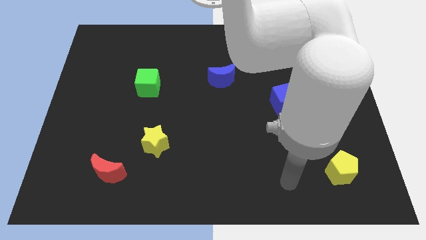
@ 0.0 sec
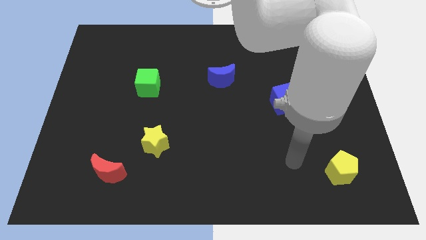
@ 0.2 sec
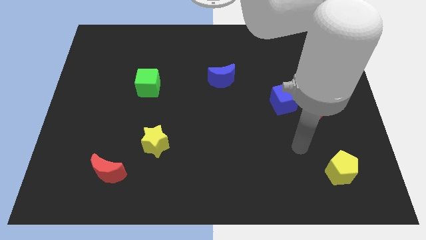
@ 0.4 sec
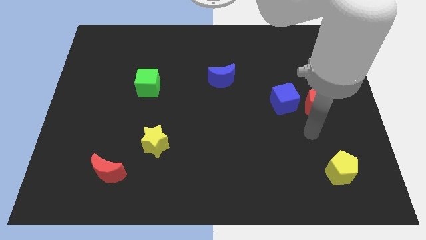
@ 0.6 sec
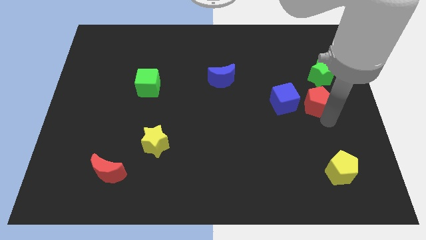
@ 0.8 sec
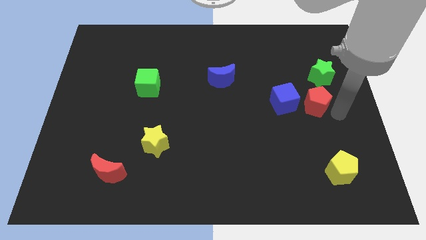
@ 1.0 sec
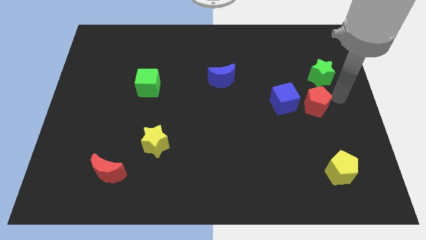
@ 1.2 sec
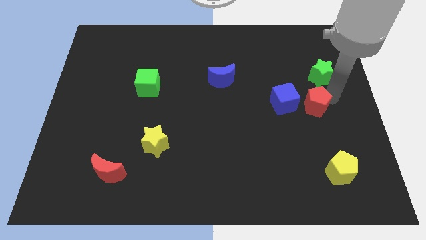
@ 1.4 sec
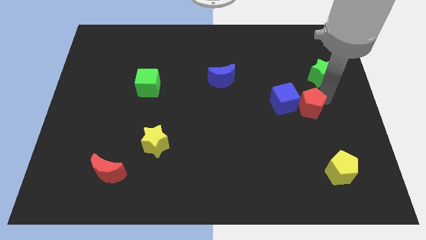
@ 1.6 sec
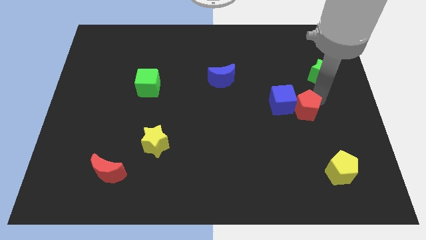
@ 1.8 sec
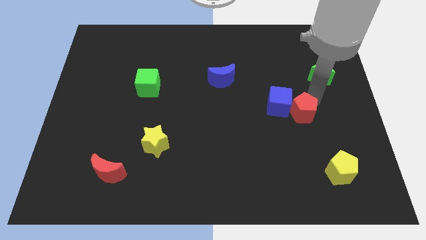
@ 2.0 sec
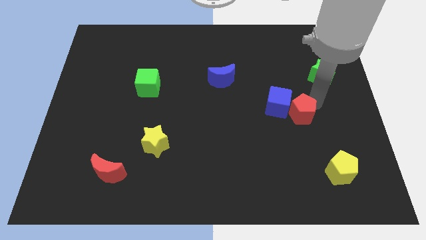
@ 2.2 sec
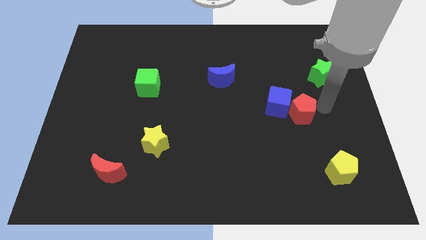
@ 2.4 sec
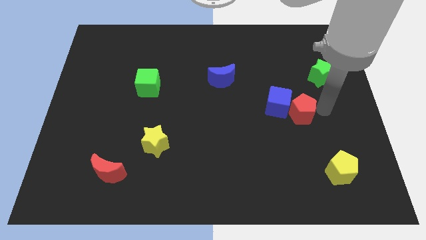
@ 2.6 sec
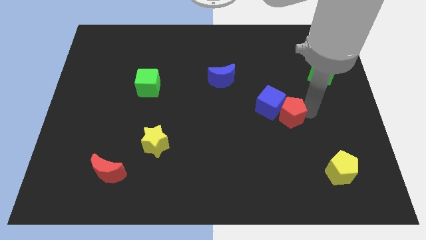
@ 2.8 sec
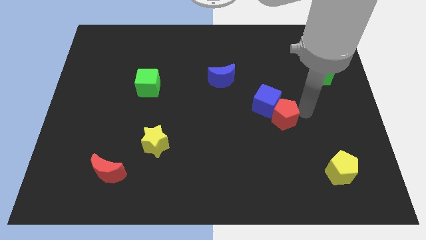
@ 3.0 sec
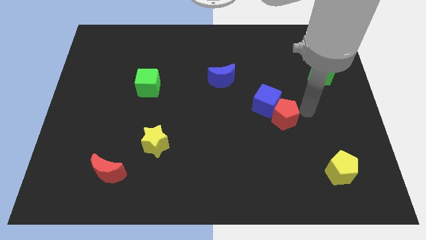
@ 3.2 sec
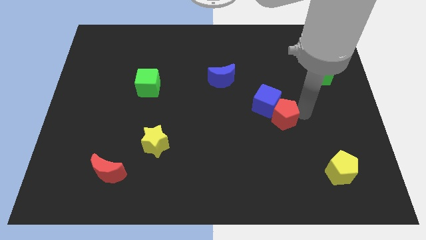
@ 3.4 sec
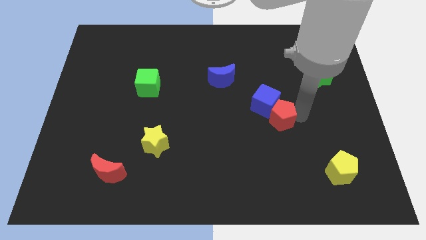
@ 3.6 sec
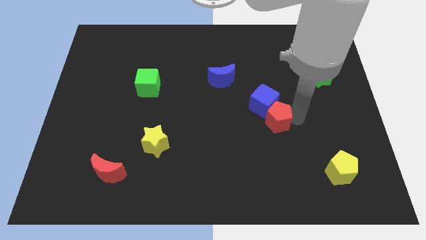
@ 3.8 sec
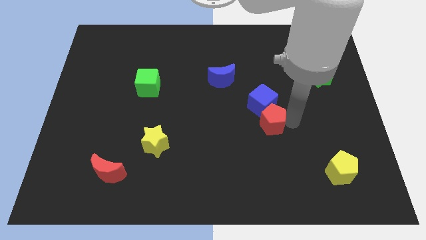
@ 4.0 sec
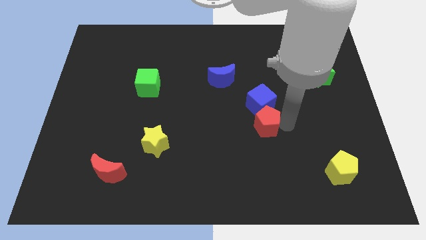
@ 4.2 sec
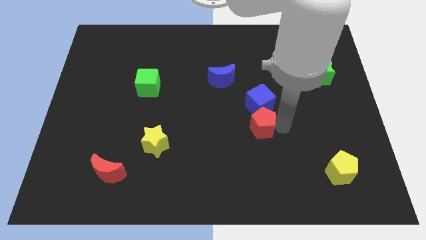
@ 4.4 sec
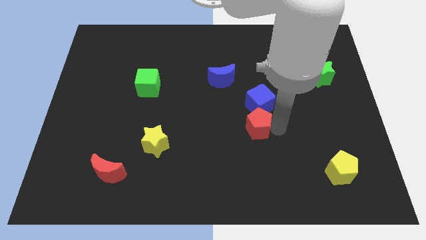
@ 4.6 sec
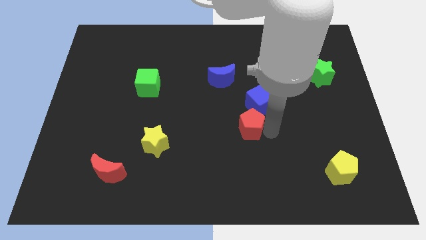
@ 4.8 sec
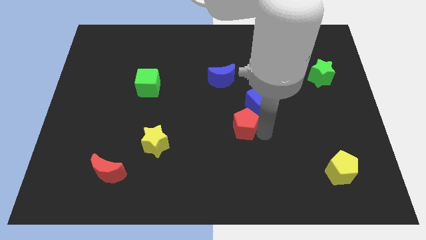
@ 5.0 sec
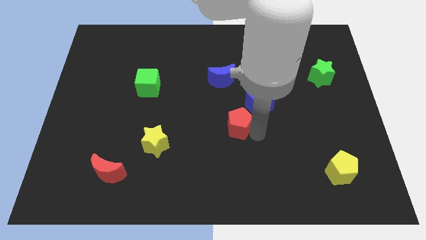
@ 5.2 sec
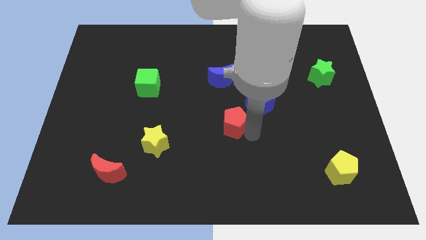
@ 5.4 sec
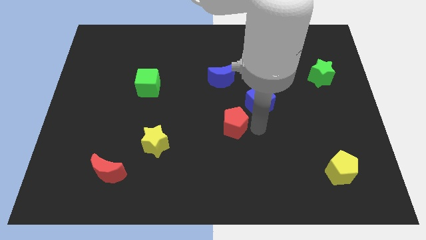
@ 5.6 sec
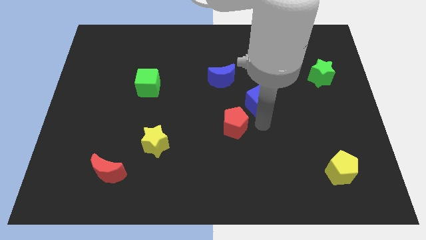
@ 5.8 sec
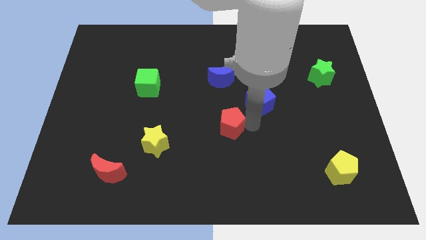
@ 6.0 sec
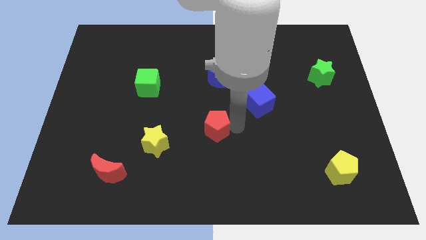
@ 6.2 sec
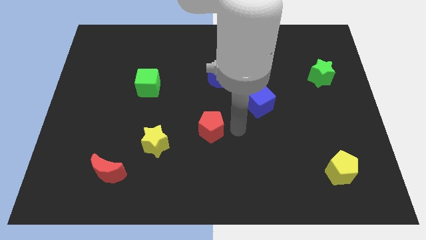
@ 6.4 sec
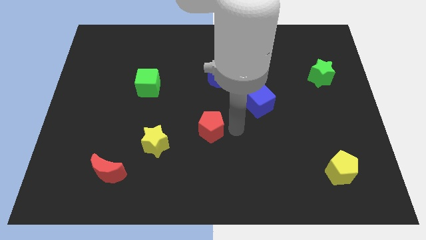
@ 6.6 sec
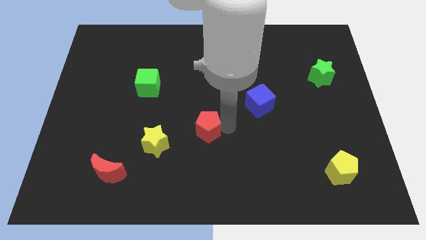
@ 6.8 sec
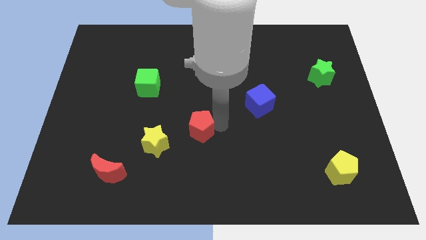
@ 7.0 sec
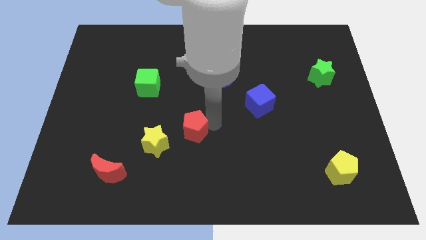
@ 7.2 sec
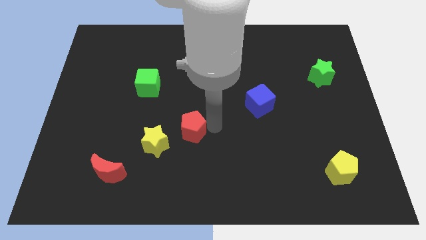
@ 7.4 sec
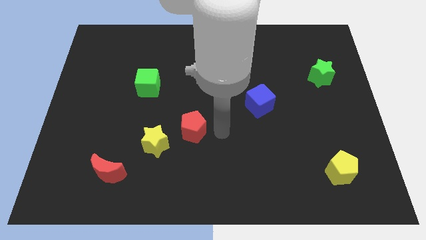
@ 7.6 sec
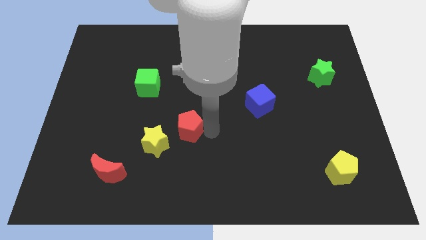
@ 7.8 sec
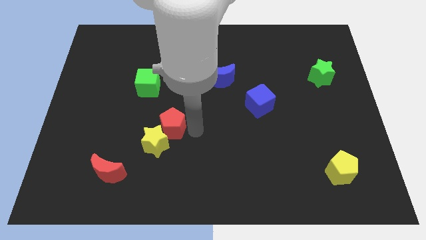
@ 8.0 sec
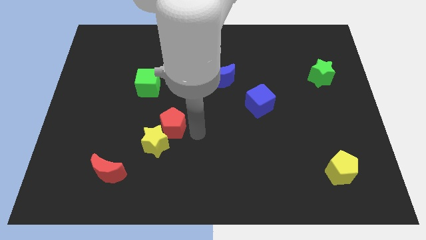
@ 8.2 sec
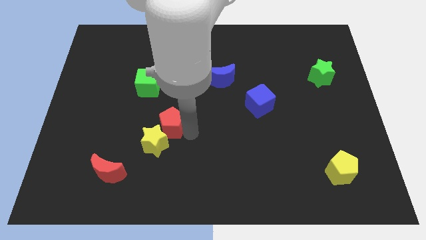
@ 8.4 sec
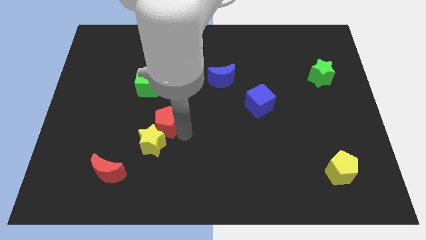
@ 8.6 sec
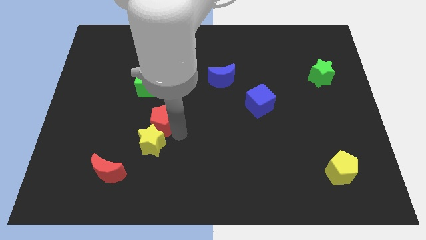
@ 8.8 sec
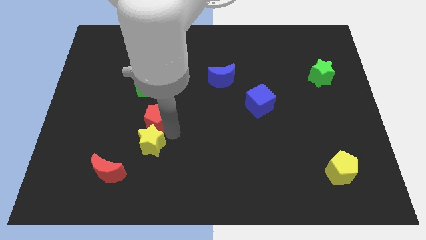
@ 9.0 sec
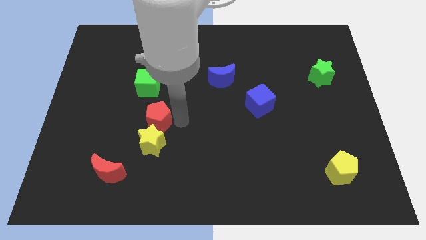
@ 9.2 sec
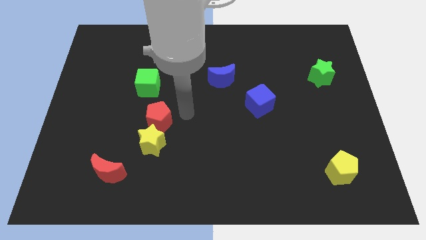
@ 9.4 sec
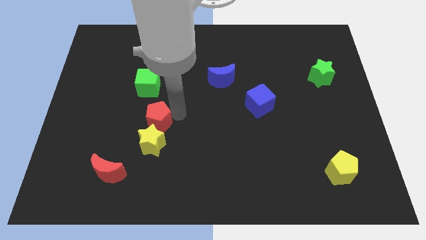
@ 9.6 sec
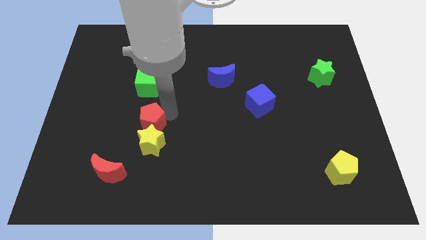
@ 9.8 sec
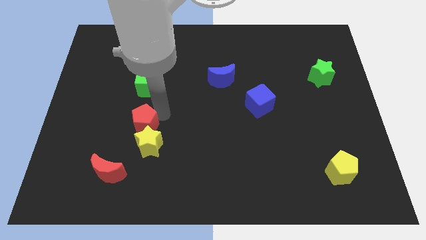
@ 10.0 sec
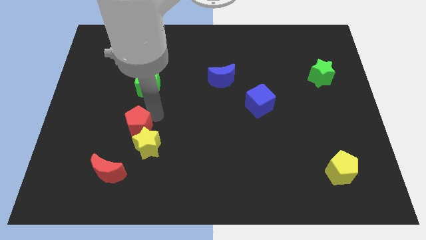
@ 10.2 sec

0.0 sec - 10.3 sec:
push the red pentagon to the top of the red moon

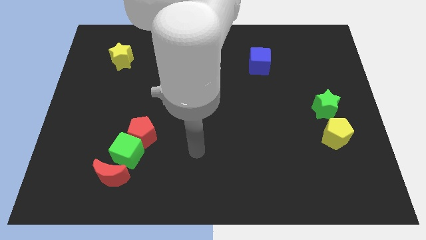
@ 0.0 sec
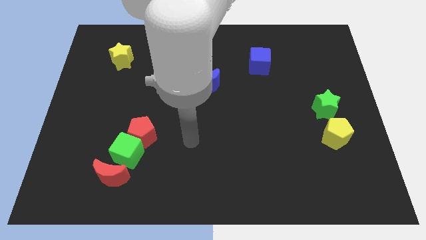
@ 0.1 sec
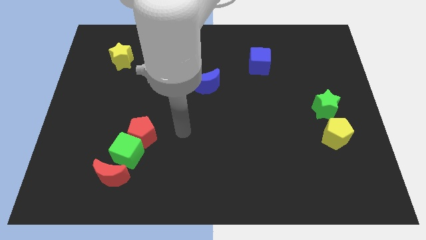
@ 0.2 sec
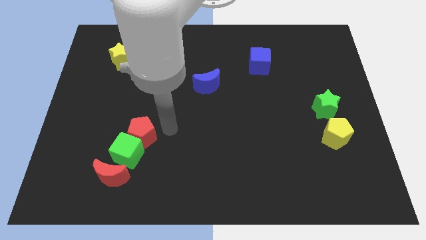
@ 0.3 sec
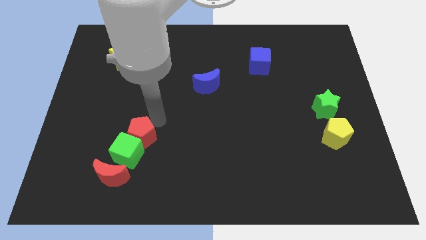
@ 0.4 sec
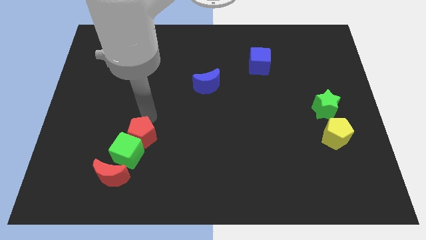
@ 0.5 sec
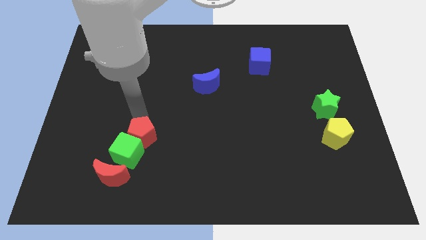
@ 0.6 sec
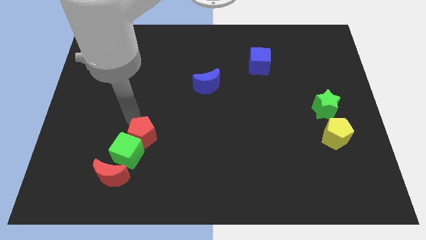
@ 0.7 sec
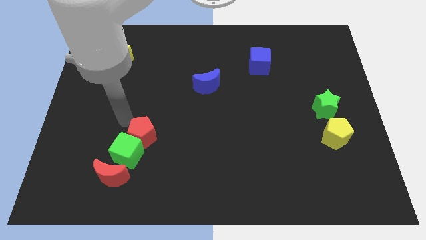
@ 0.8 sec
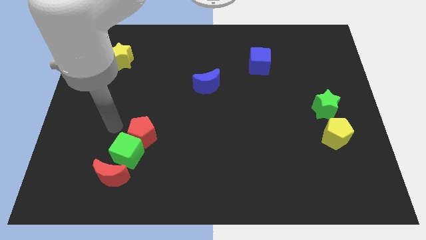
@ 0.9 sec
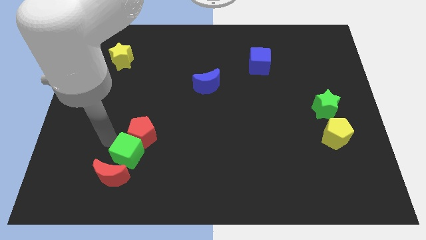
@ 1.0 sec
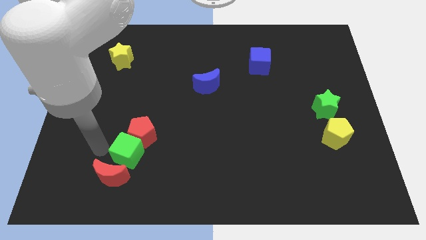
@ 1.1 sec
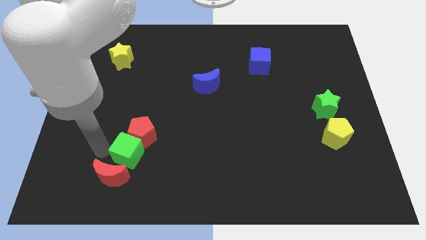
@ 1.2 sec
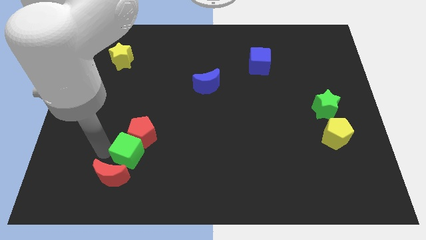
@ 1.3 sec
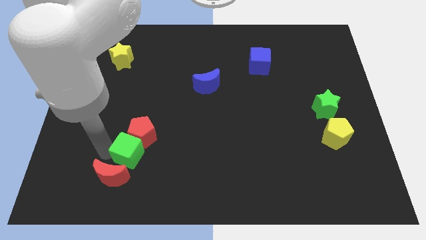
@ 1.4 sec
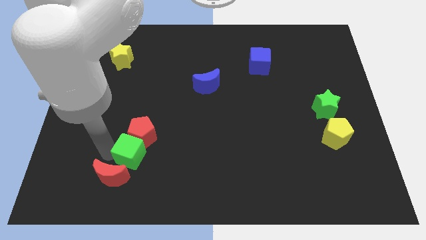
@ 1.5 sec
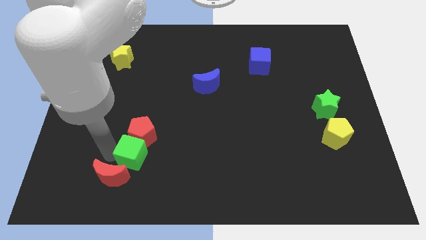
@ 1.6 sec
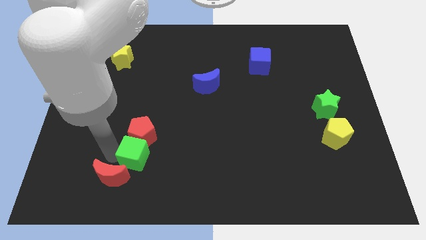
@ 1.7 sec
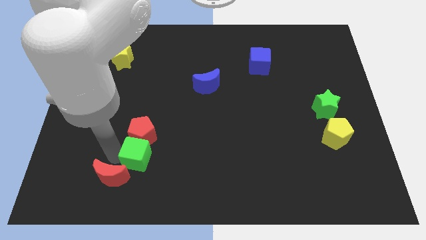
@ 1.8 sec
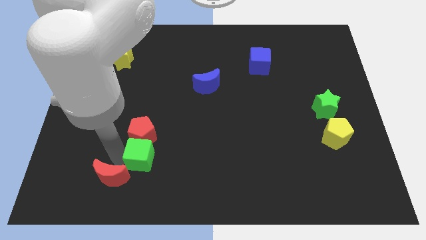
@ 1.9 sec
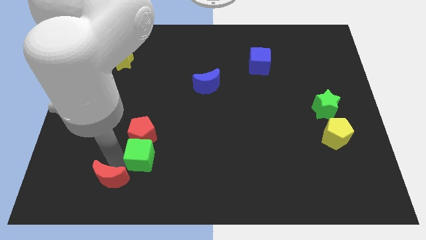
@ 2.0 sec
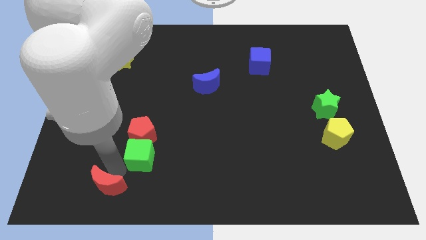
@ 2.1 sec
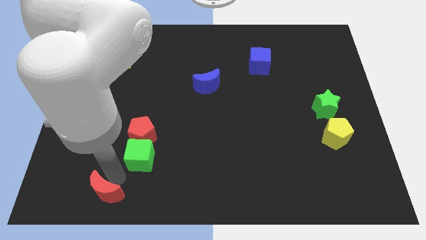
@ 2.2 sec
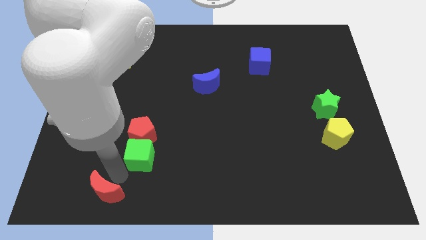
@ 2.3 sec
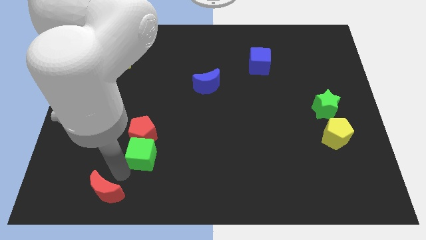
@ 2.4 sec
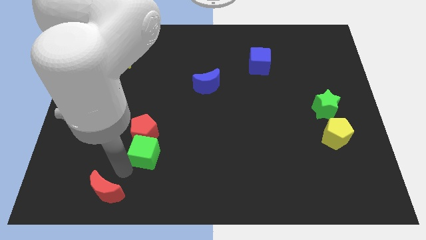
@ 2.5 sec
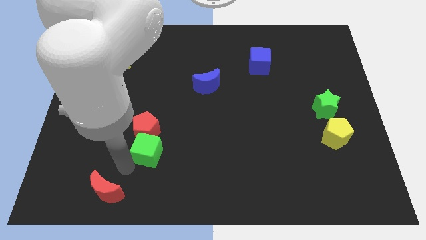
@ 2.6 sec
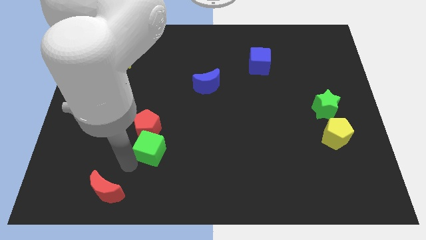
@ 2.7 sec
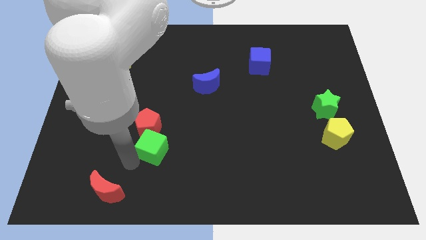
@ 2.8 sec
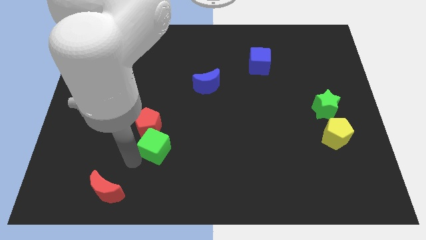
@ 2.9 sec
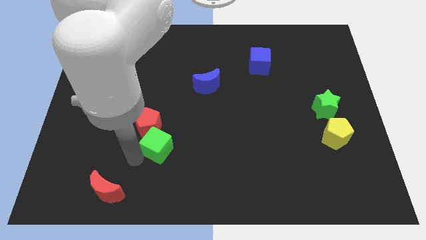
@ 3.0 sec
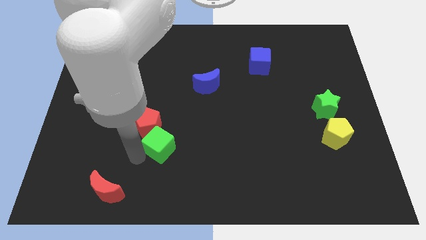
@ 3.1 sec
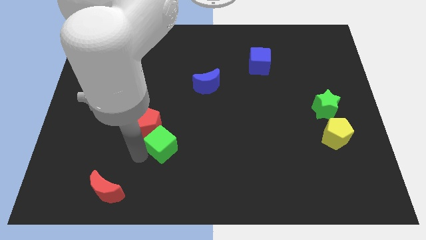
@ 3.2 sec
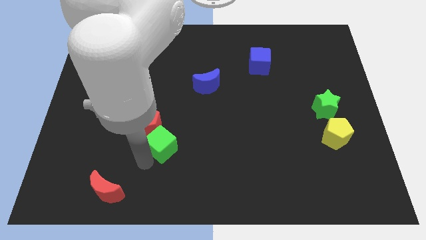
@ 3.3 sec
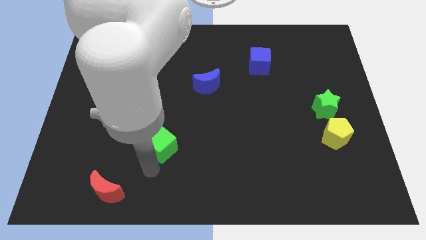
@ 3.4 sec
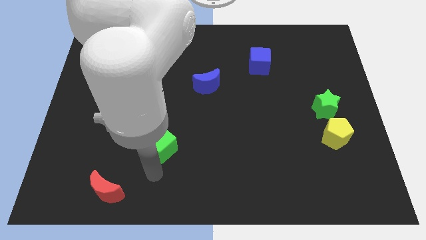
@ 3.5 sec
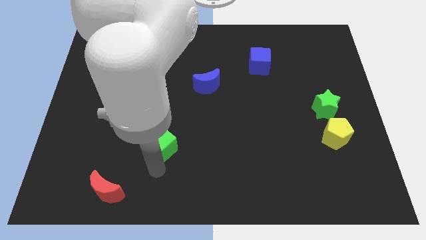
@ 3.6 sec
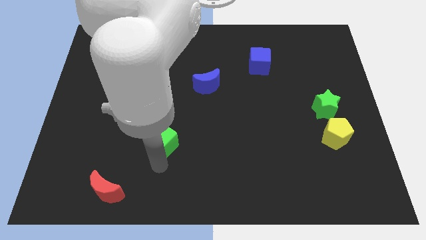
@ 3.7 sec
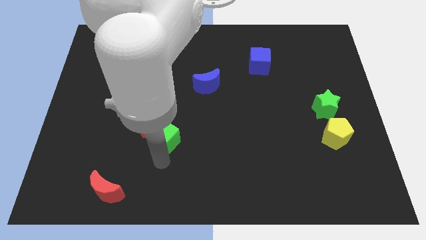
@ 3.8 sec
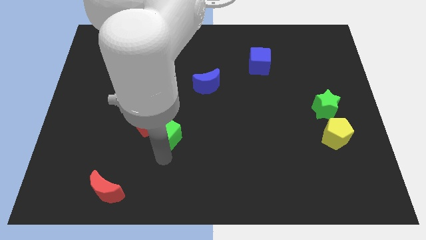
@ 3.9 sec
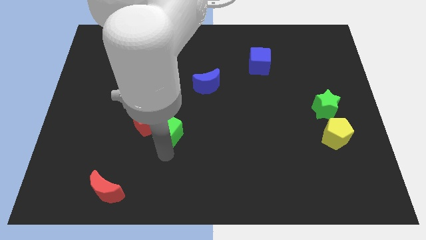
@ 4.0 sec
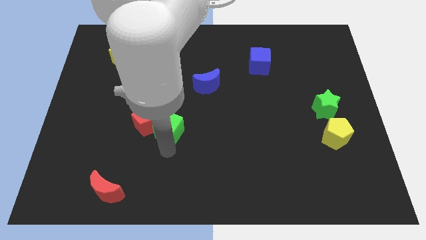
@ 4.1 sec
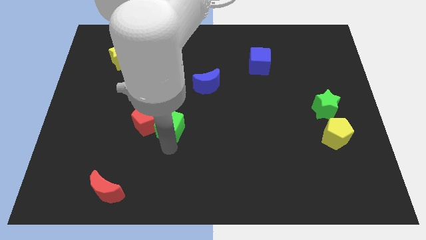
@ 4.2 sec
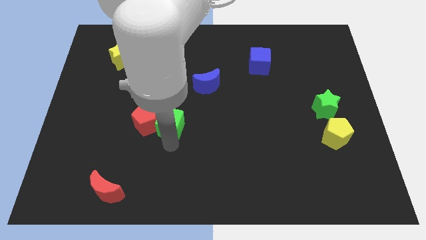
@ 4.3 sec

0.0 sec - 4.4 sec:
put the green cube to the top right of the red pentagon
